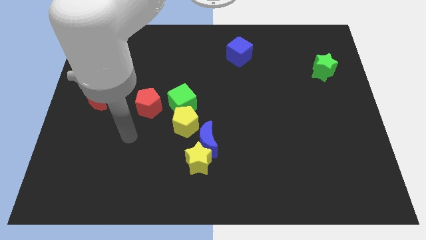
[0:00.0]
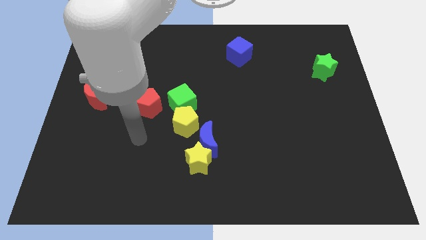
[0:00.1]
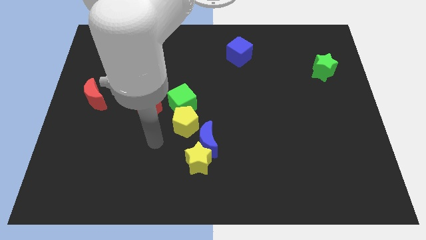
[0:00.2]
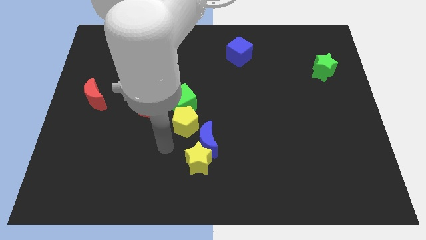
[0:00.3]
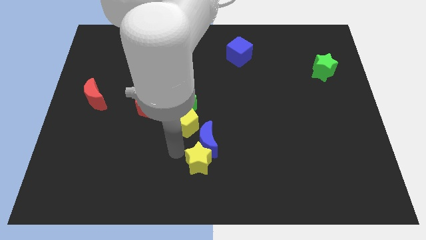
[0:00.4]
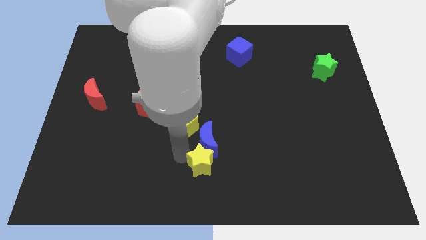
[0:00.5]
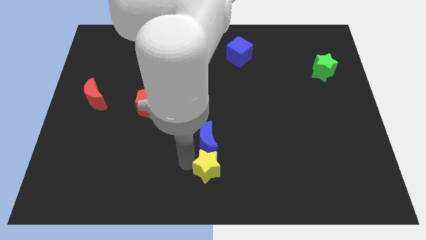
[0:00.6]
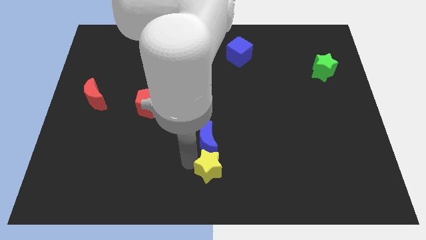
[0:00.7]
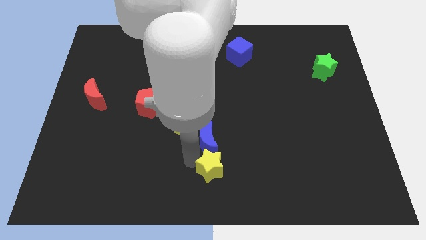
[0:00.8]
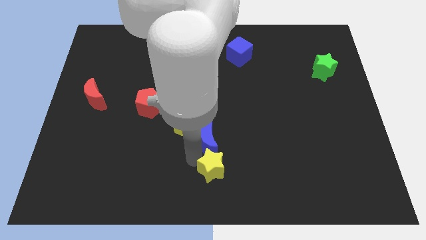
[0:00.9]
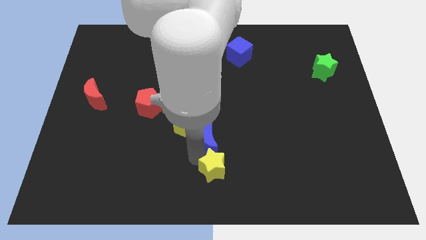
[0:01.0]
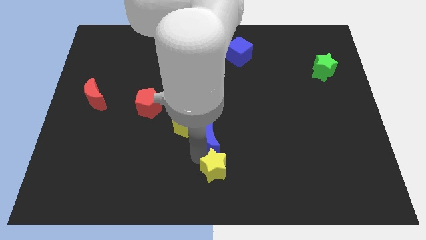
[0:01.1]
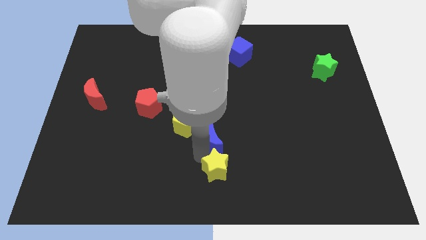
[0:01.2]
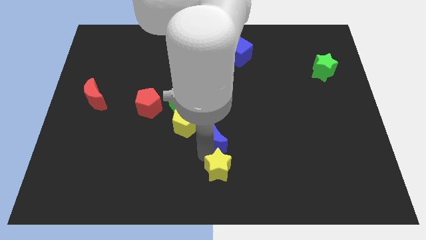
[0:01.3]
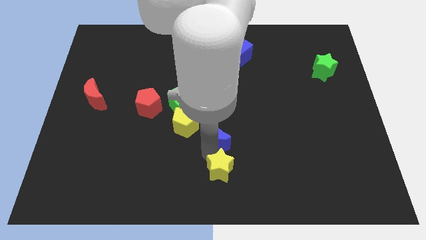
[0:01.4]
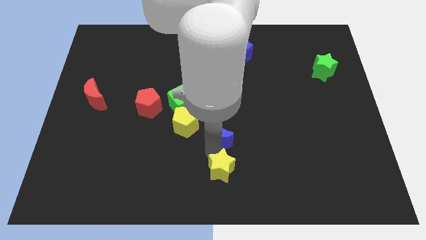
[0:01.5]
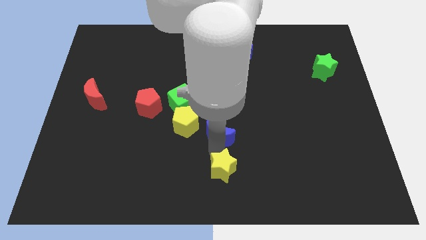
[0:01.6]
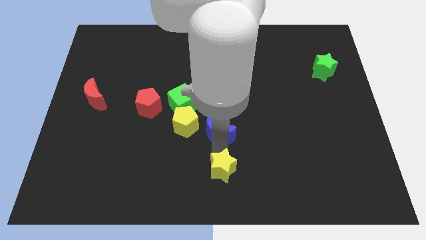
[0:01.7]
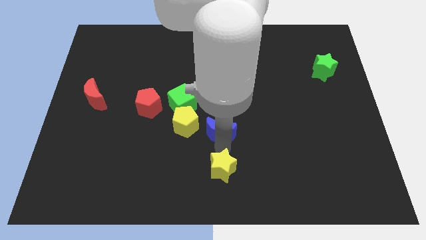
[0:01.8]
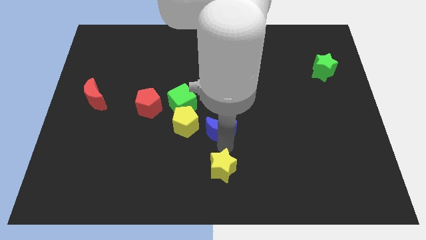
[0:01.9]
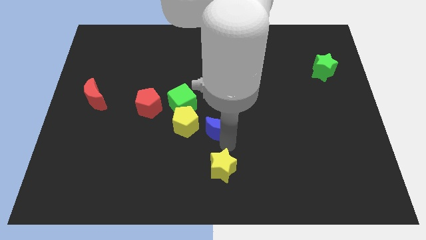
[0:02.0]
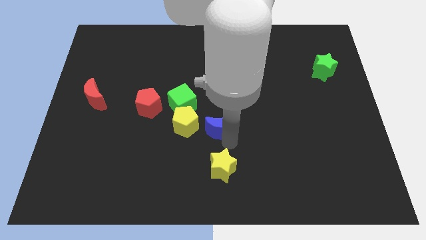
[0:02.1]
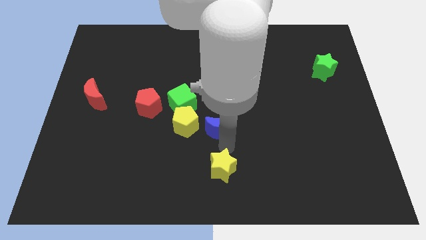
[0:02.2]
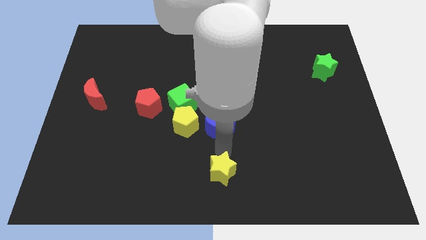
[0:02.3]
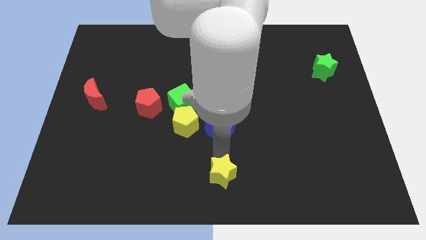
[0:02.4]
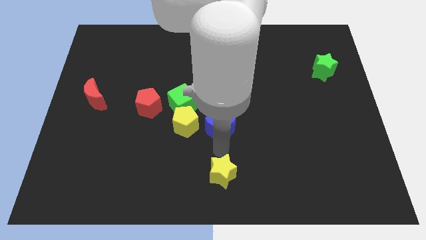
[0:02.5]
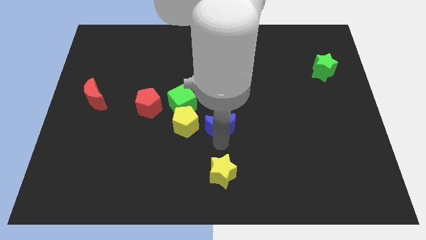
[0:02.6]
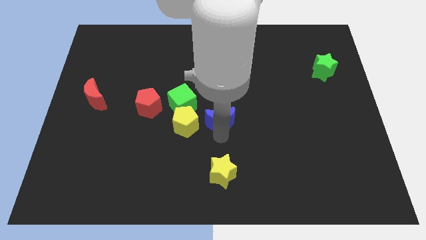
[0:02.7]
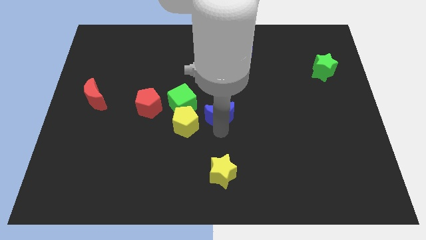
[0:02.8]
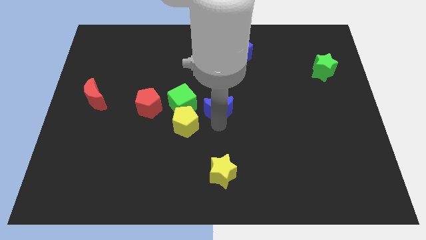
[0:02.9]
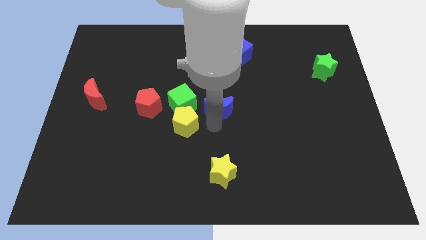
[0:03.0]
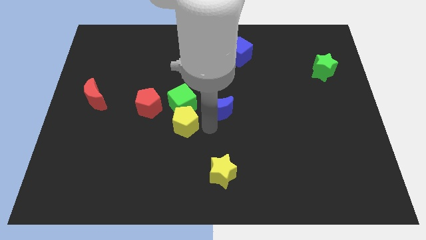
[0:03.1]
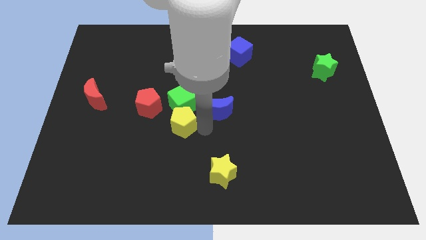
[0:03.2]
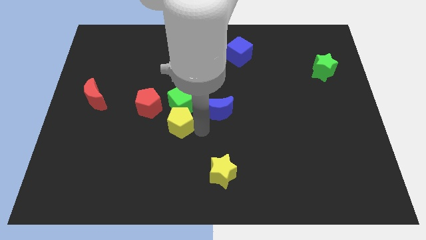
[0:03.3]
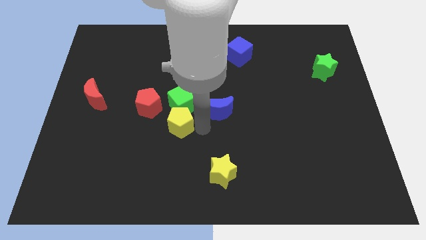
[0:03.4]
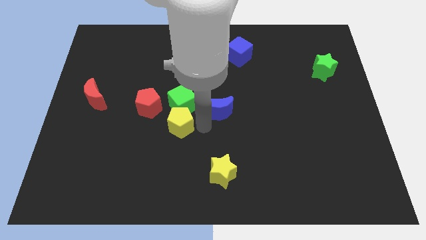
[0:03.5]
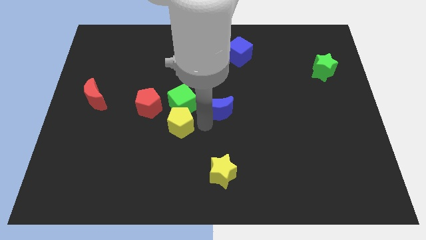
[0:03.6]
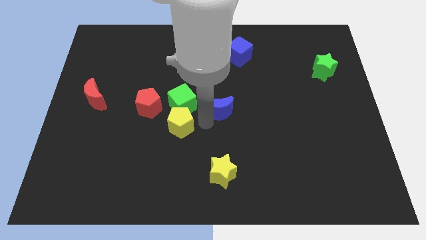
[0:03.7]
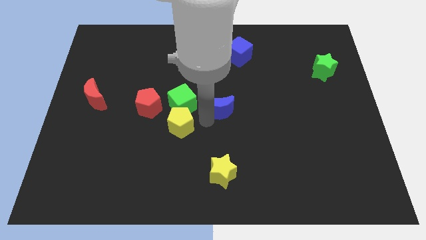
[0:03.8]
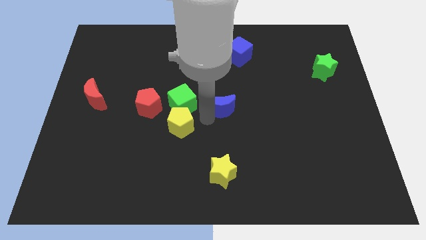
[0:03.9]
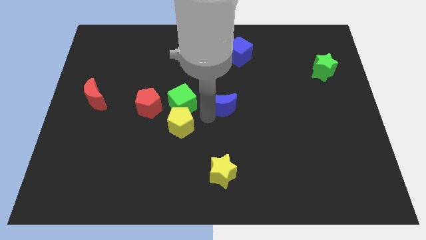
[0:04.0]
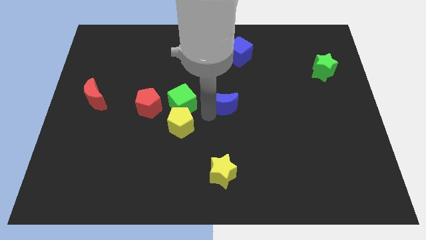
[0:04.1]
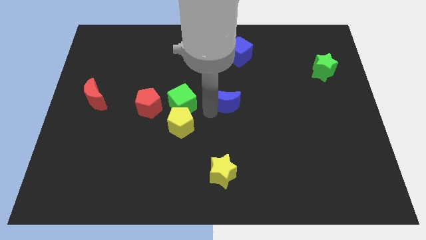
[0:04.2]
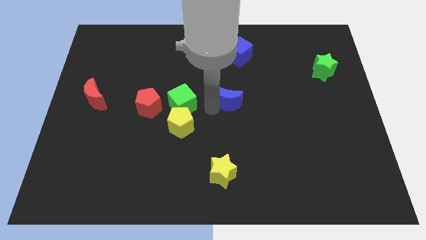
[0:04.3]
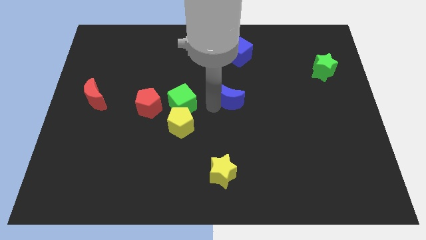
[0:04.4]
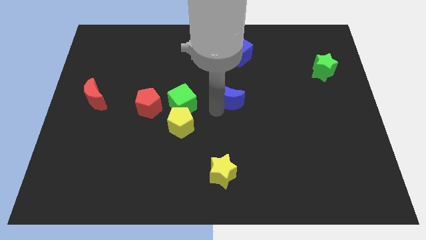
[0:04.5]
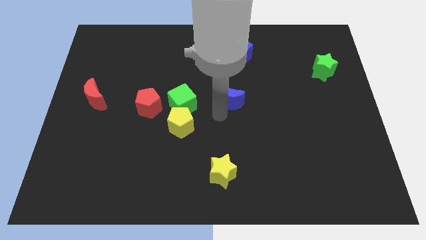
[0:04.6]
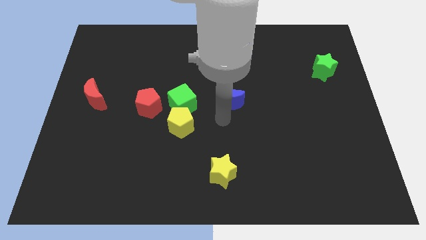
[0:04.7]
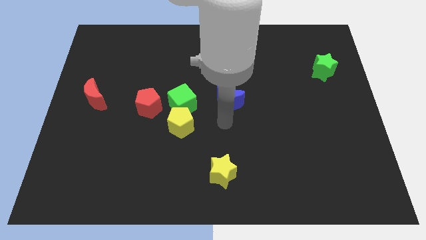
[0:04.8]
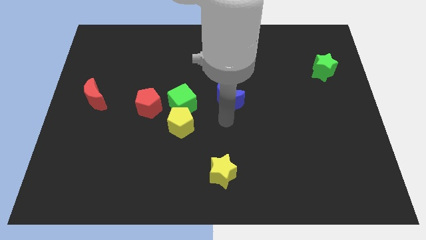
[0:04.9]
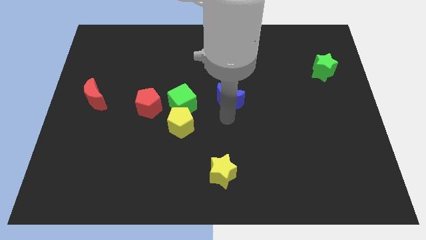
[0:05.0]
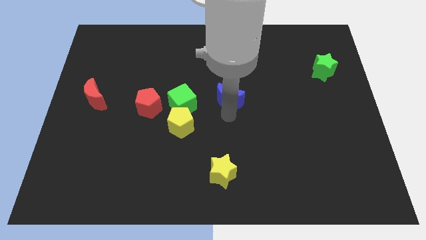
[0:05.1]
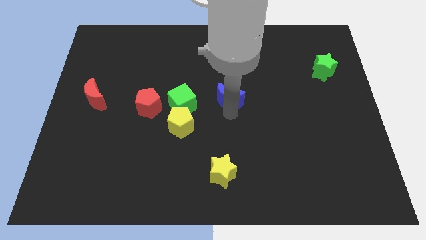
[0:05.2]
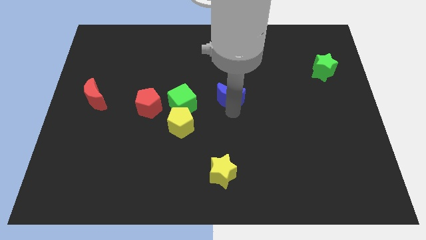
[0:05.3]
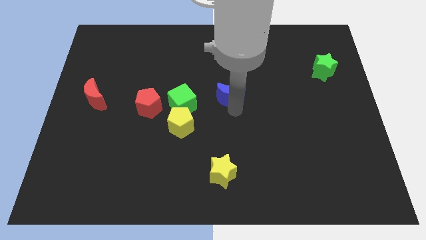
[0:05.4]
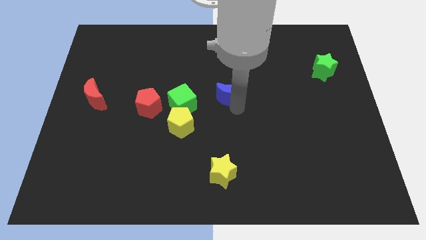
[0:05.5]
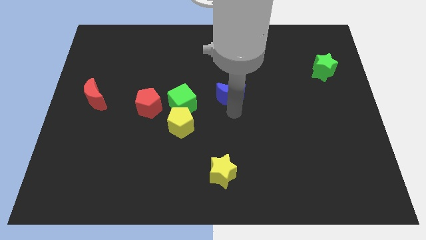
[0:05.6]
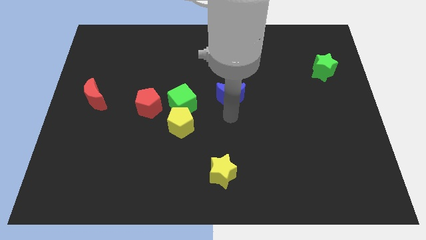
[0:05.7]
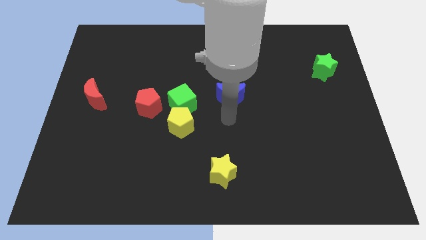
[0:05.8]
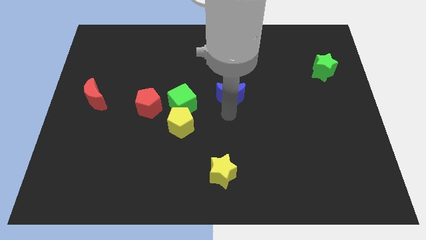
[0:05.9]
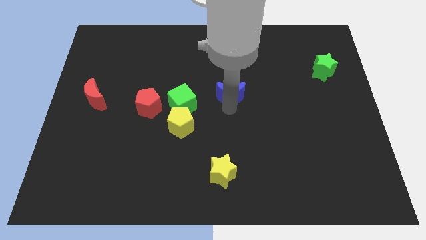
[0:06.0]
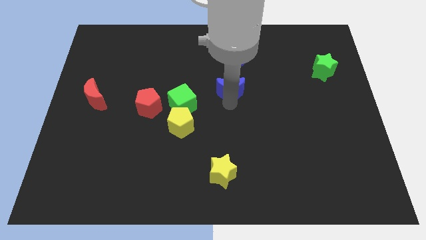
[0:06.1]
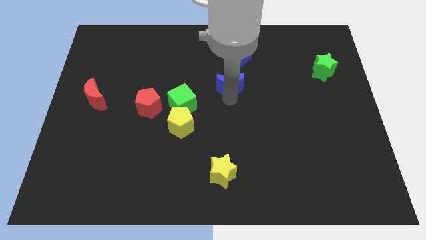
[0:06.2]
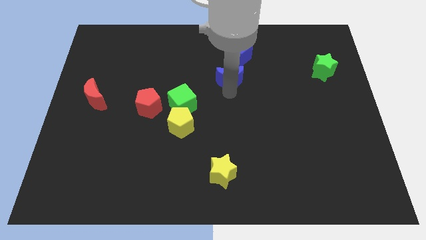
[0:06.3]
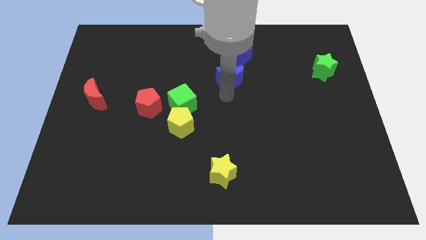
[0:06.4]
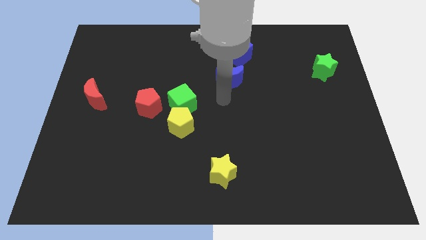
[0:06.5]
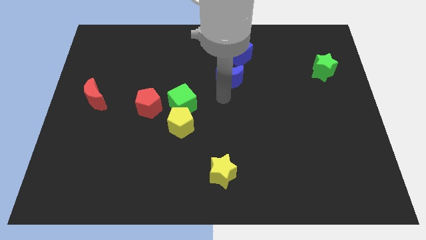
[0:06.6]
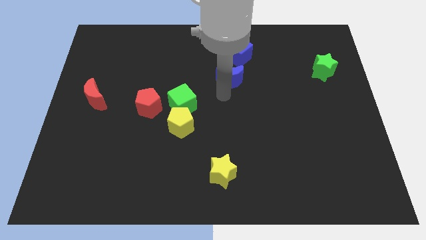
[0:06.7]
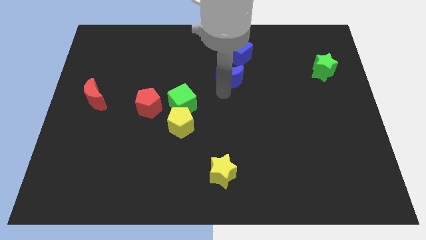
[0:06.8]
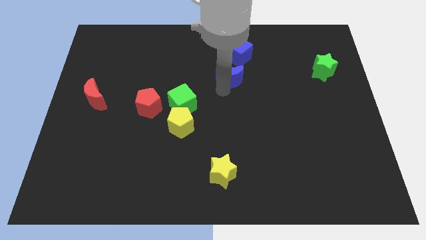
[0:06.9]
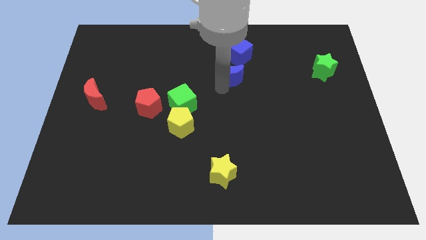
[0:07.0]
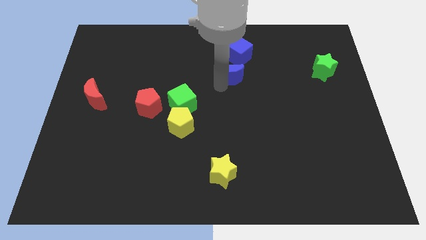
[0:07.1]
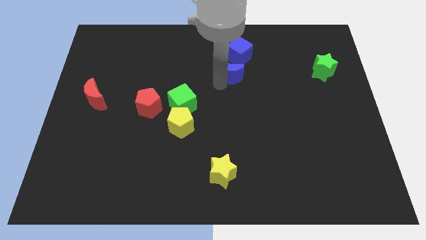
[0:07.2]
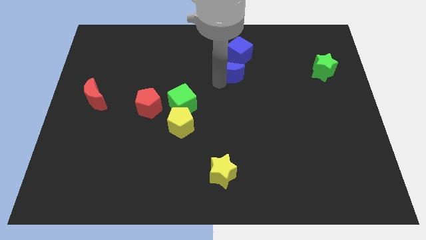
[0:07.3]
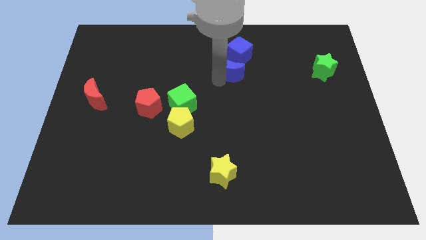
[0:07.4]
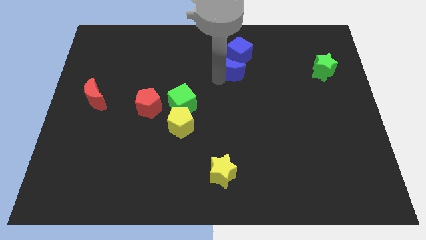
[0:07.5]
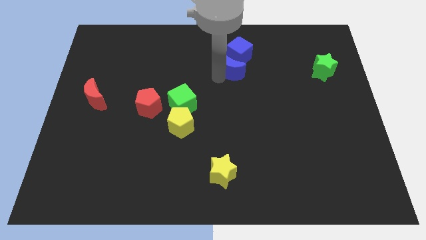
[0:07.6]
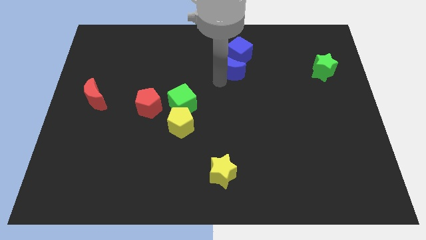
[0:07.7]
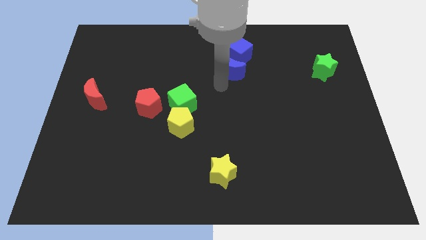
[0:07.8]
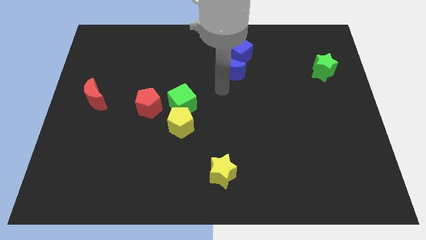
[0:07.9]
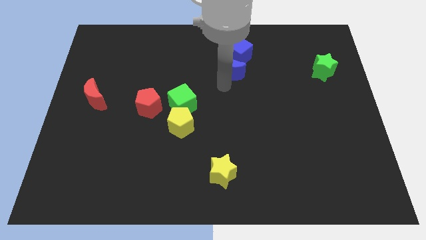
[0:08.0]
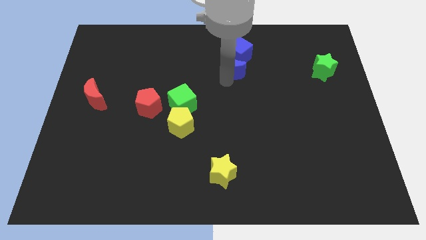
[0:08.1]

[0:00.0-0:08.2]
slide the blue moon next to the blue cube
